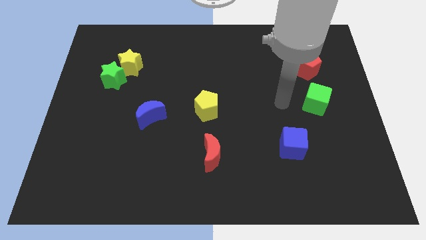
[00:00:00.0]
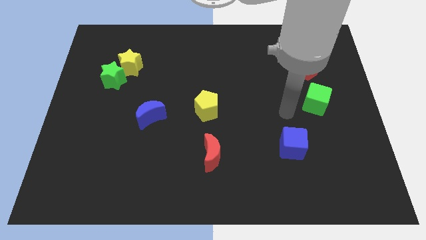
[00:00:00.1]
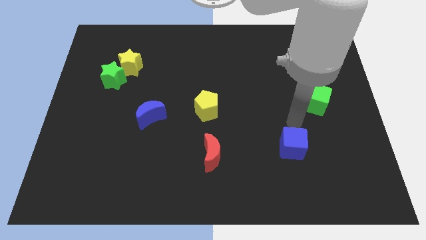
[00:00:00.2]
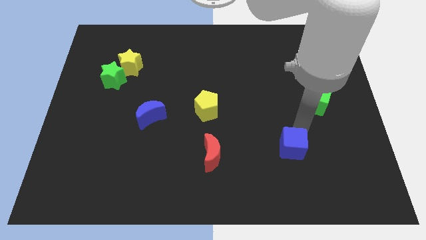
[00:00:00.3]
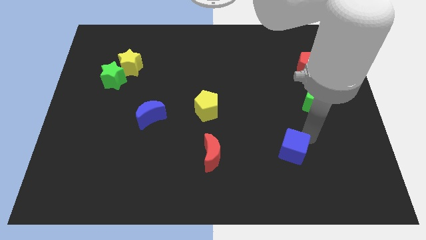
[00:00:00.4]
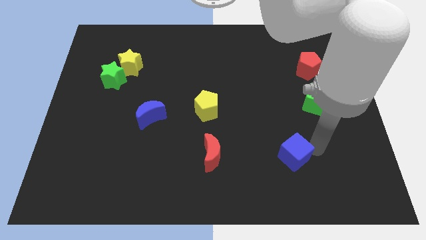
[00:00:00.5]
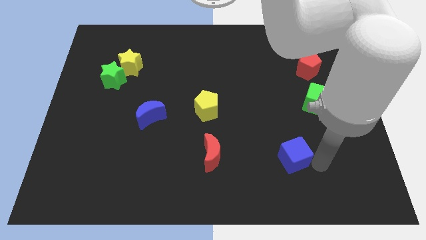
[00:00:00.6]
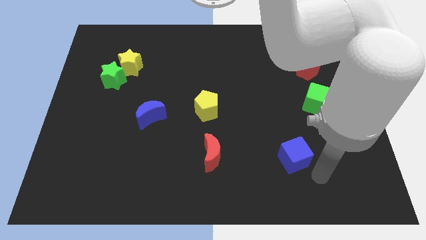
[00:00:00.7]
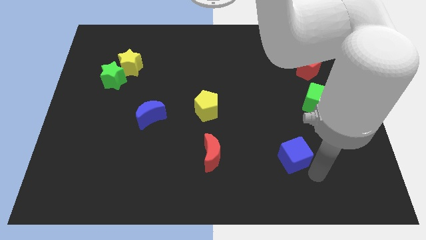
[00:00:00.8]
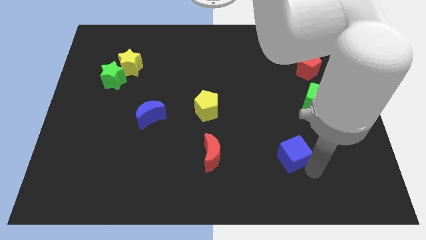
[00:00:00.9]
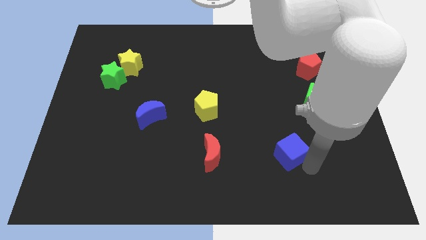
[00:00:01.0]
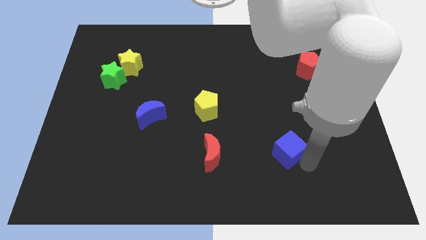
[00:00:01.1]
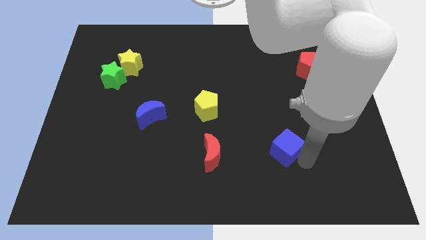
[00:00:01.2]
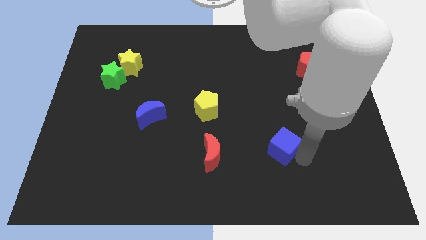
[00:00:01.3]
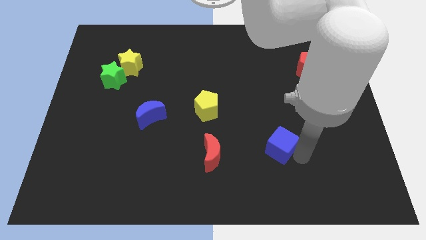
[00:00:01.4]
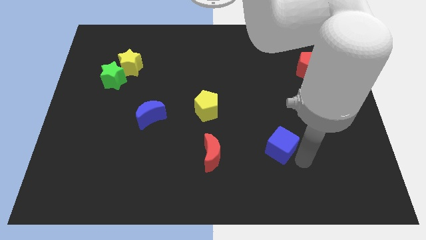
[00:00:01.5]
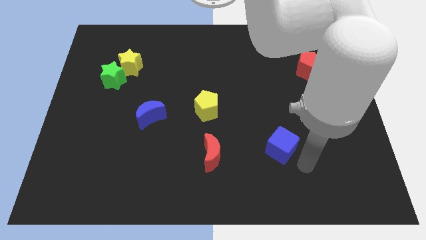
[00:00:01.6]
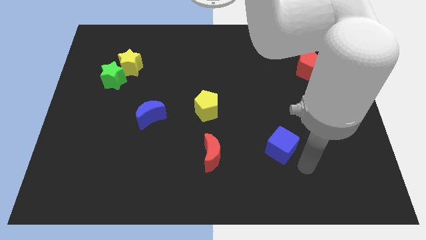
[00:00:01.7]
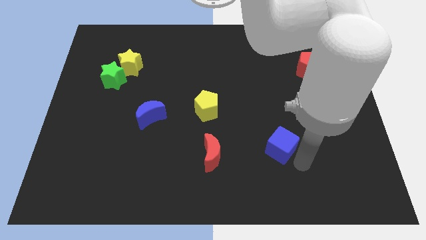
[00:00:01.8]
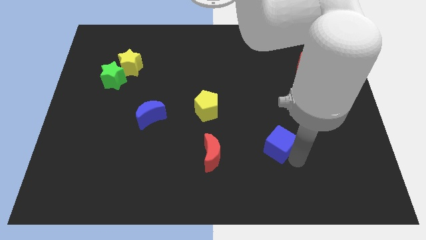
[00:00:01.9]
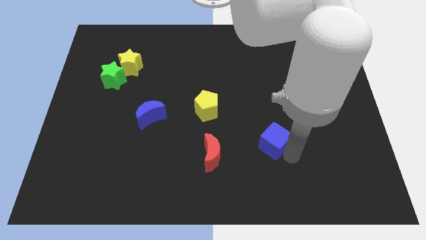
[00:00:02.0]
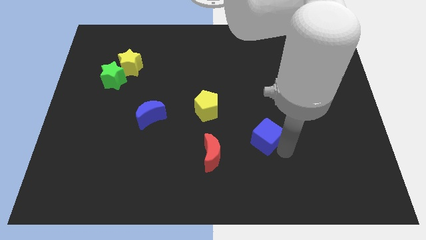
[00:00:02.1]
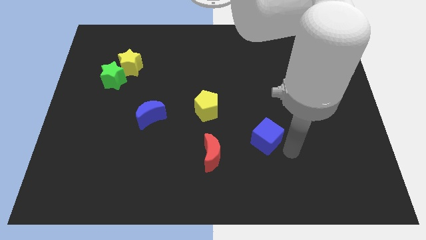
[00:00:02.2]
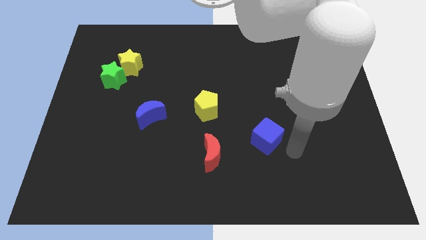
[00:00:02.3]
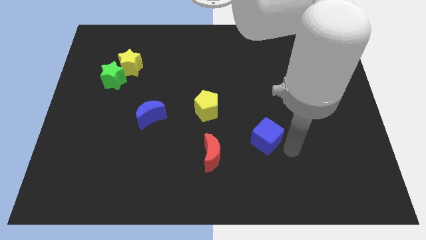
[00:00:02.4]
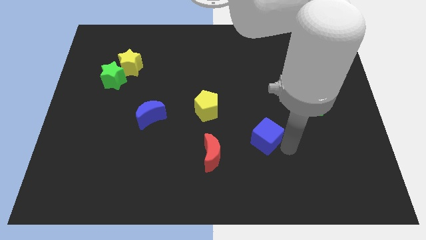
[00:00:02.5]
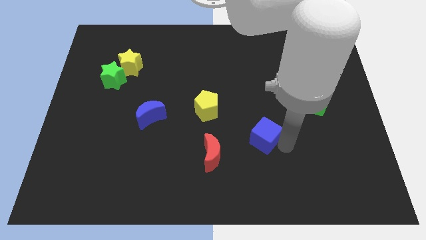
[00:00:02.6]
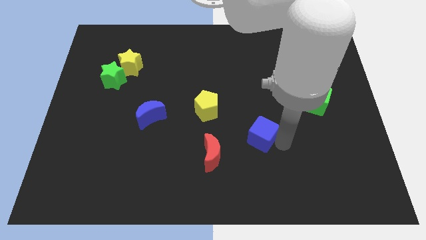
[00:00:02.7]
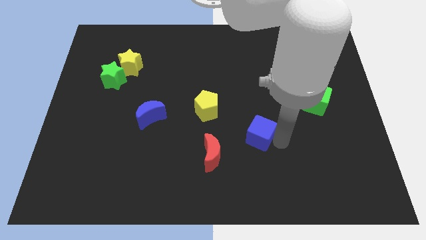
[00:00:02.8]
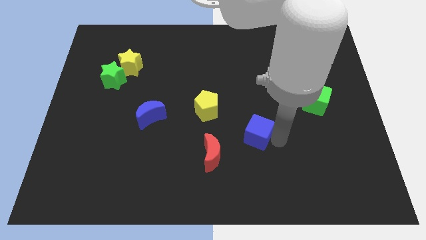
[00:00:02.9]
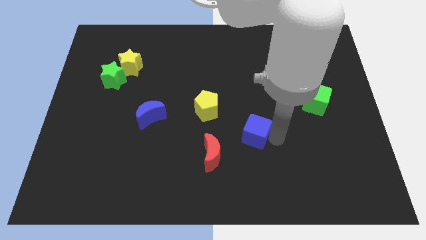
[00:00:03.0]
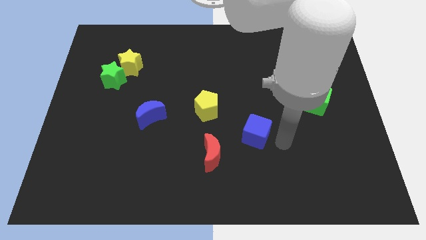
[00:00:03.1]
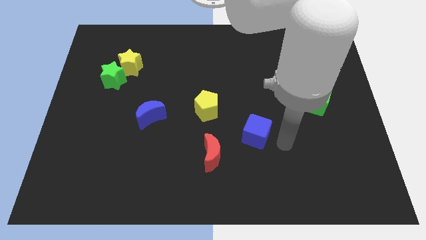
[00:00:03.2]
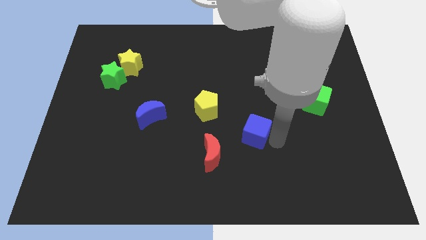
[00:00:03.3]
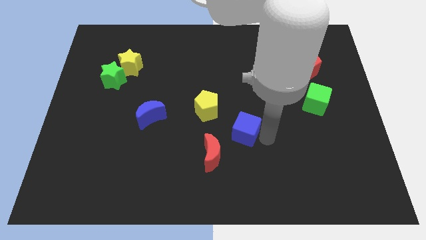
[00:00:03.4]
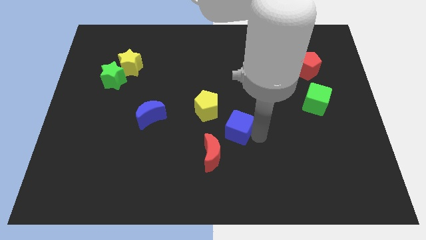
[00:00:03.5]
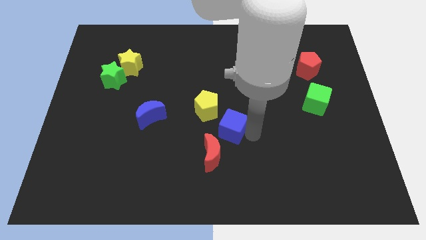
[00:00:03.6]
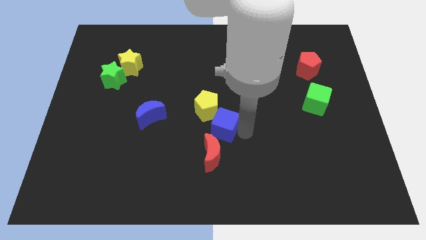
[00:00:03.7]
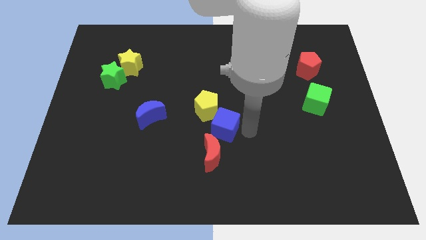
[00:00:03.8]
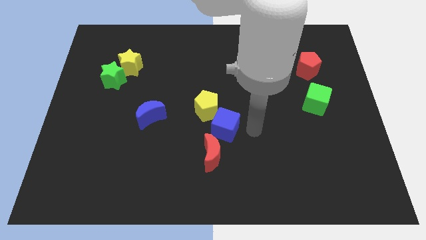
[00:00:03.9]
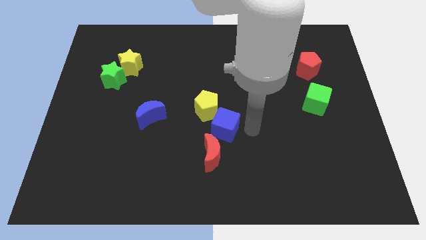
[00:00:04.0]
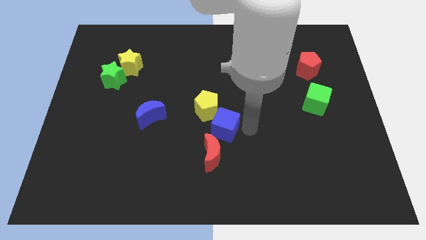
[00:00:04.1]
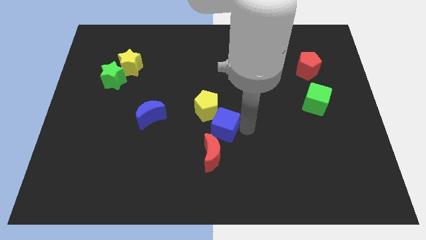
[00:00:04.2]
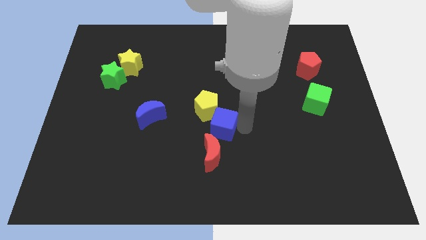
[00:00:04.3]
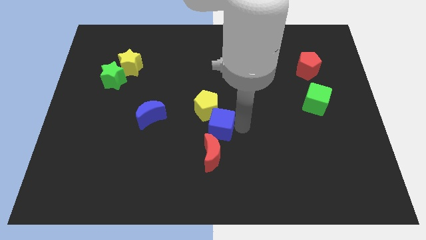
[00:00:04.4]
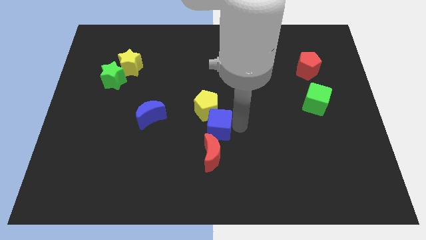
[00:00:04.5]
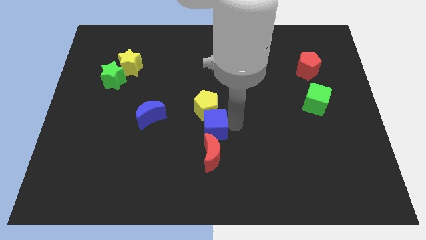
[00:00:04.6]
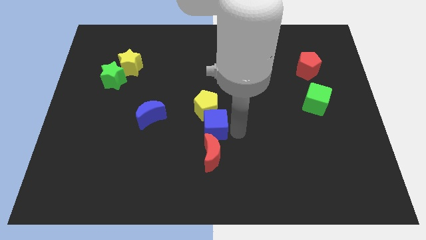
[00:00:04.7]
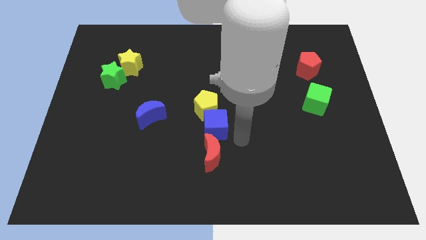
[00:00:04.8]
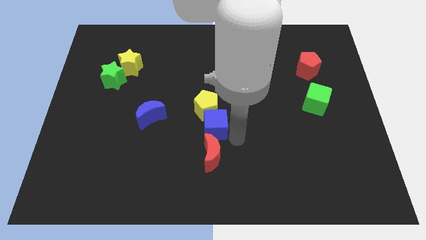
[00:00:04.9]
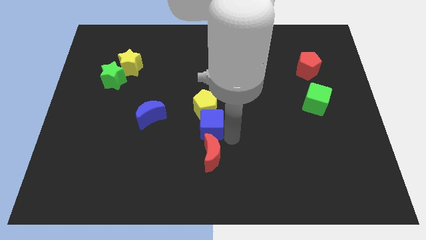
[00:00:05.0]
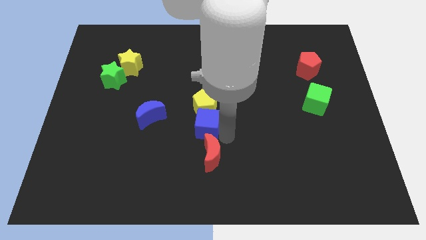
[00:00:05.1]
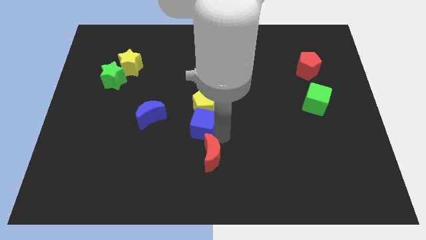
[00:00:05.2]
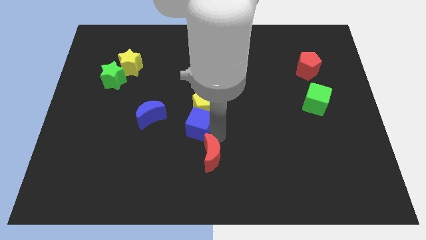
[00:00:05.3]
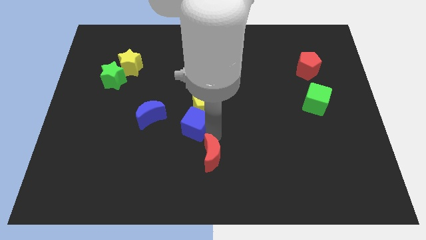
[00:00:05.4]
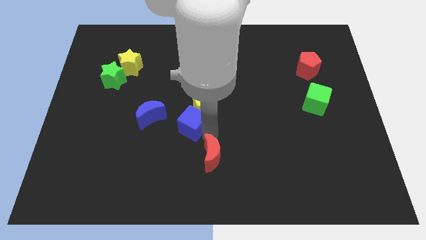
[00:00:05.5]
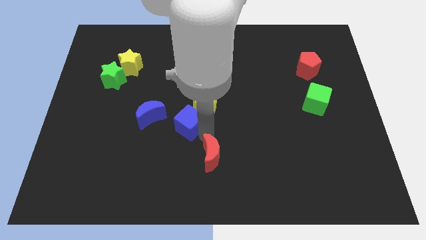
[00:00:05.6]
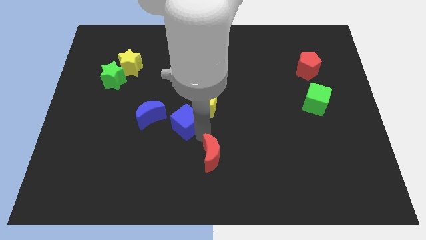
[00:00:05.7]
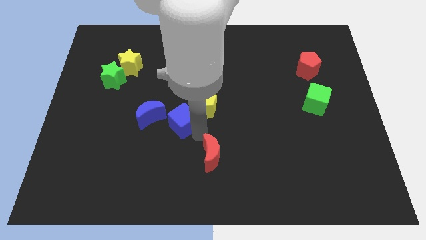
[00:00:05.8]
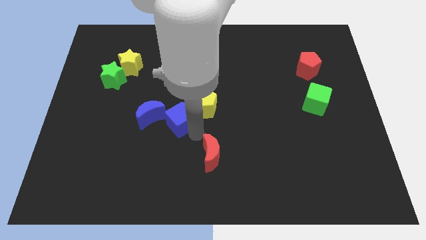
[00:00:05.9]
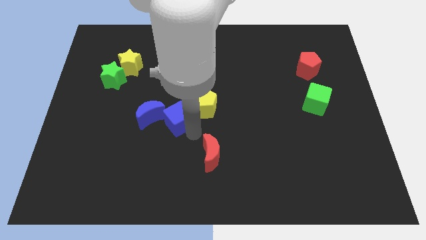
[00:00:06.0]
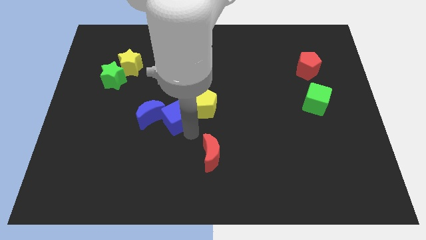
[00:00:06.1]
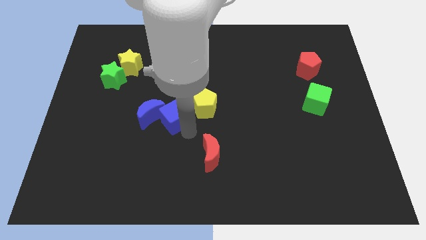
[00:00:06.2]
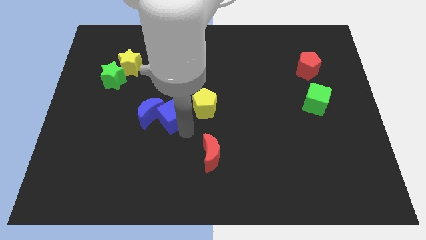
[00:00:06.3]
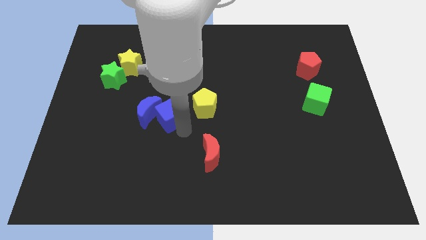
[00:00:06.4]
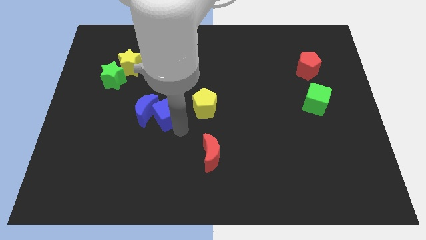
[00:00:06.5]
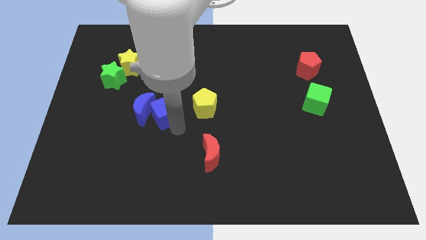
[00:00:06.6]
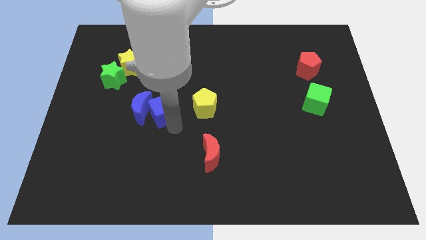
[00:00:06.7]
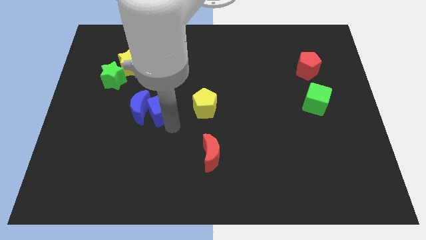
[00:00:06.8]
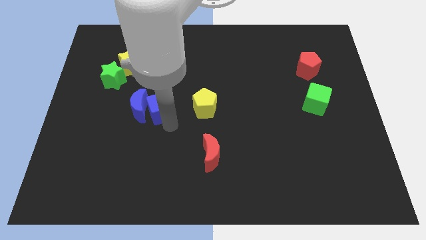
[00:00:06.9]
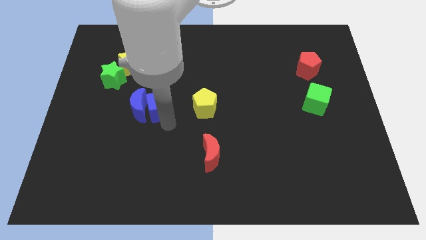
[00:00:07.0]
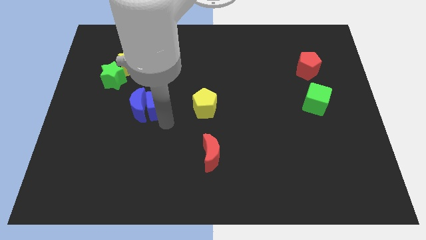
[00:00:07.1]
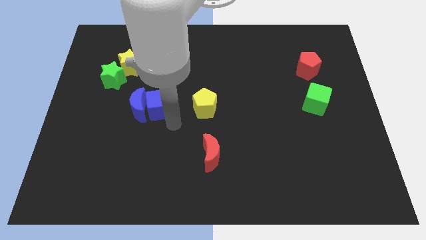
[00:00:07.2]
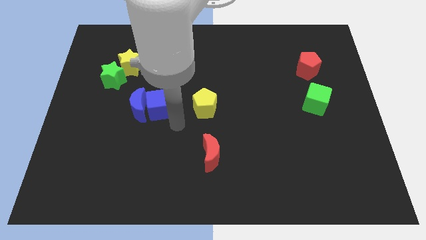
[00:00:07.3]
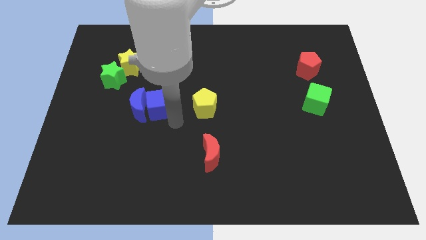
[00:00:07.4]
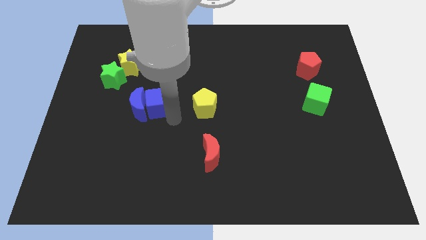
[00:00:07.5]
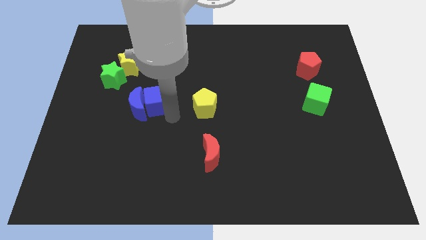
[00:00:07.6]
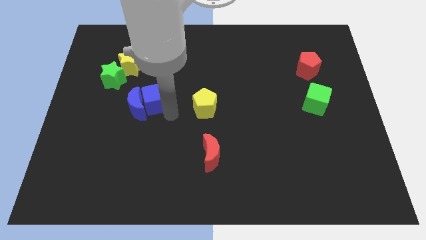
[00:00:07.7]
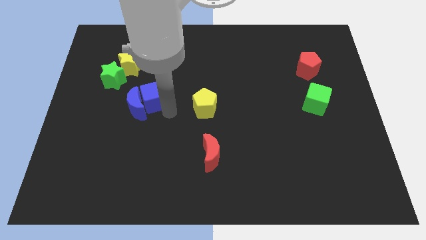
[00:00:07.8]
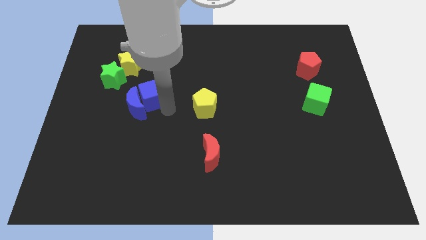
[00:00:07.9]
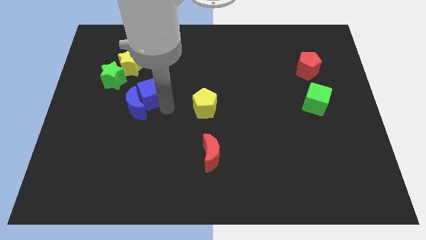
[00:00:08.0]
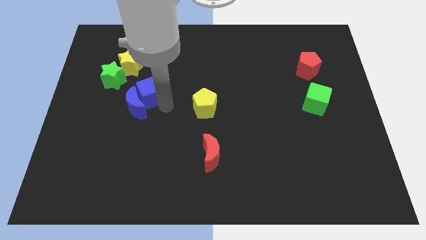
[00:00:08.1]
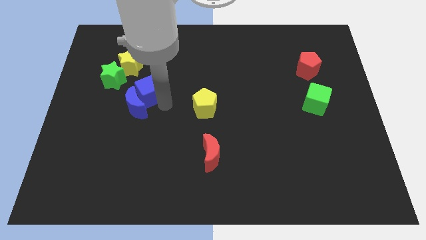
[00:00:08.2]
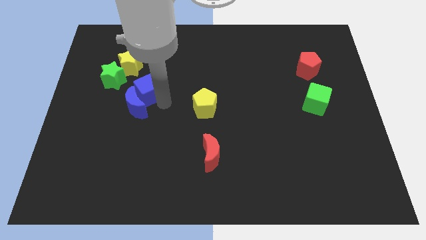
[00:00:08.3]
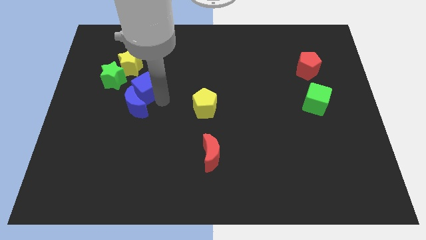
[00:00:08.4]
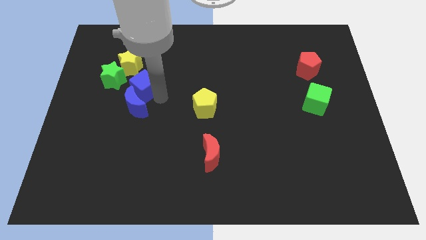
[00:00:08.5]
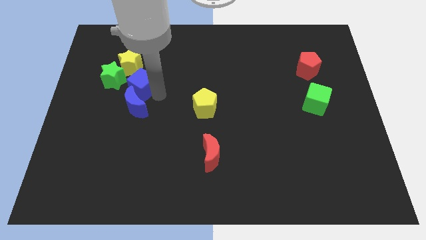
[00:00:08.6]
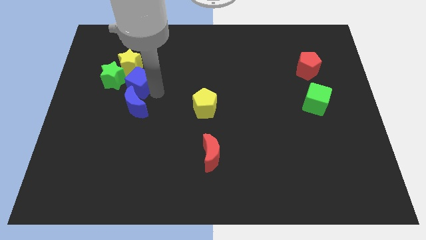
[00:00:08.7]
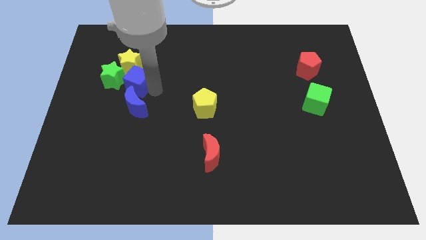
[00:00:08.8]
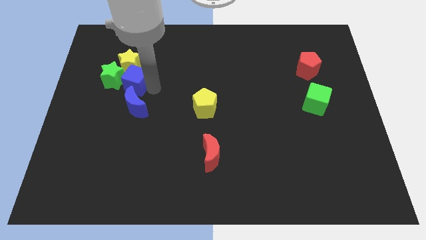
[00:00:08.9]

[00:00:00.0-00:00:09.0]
push the blue cube towards the green star
